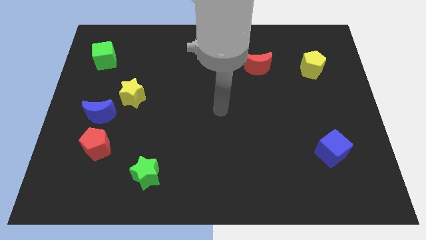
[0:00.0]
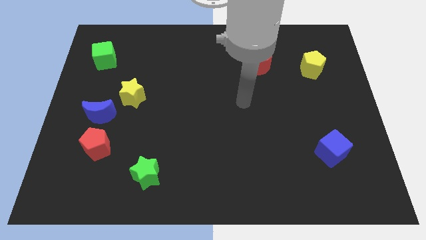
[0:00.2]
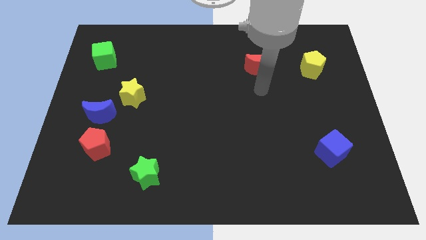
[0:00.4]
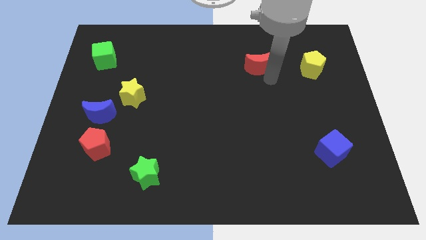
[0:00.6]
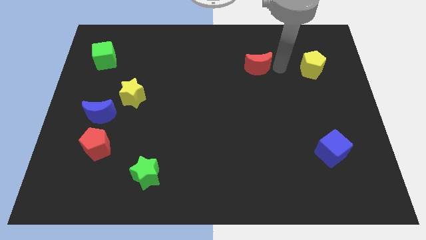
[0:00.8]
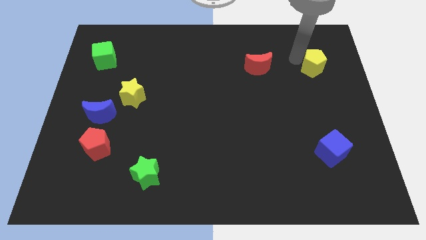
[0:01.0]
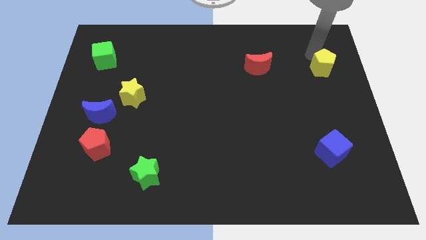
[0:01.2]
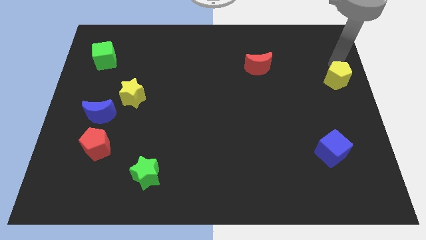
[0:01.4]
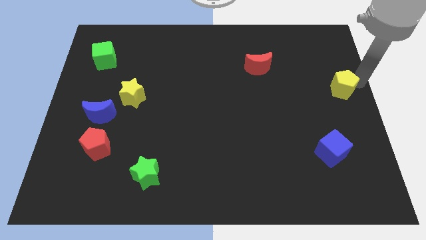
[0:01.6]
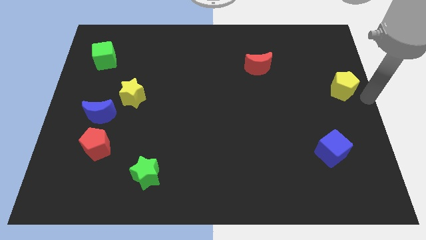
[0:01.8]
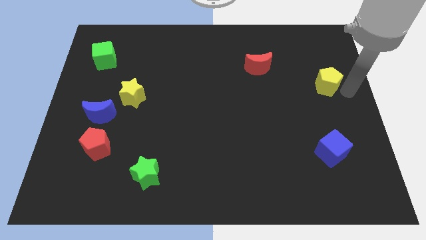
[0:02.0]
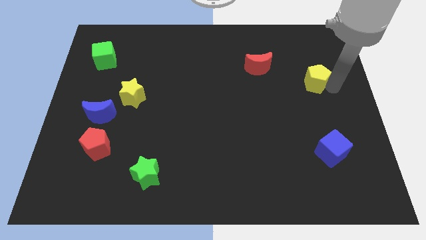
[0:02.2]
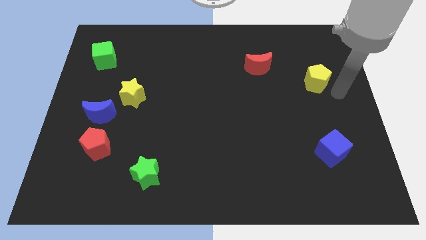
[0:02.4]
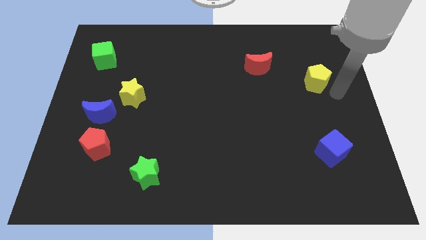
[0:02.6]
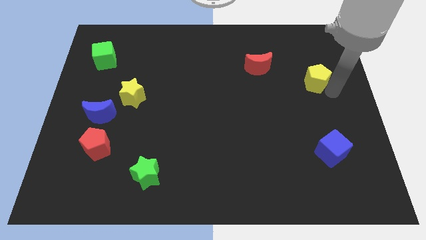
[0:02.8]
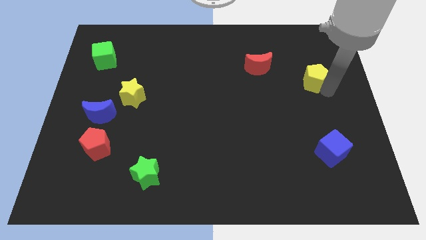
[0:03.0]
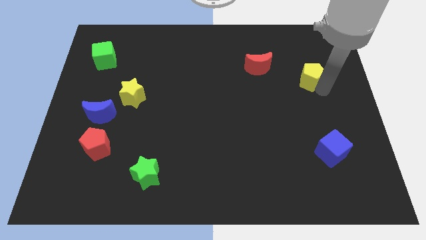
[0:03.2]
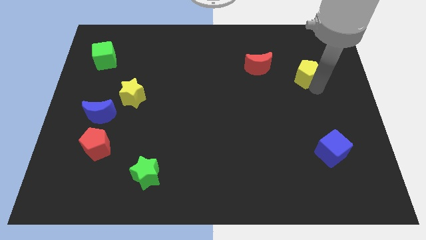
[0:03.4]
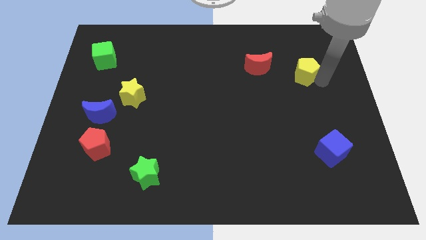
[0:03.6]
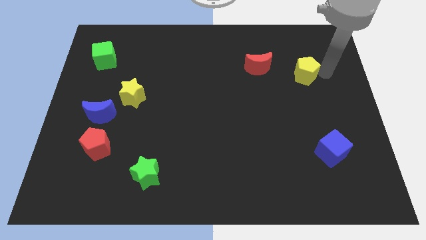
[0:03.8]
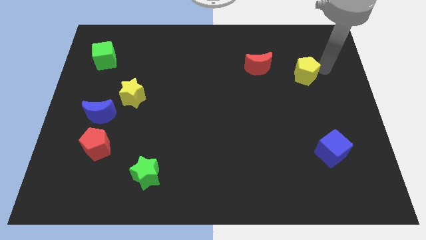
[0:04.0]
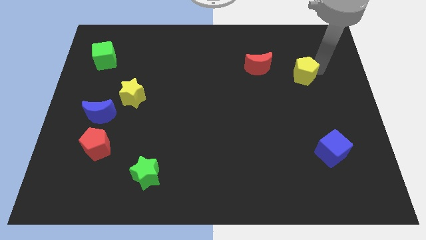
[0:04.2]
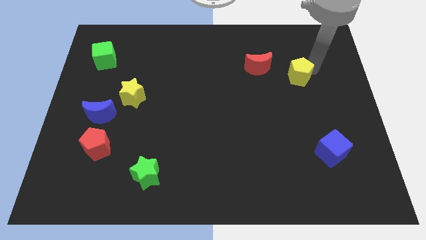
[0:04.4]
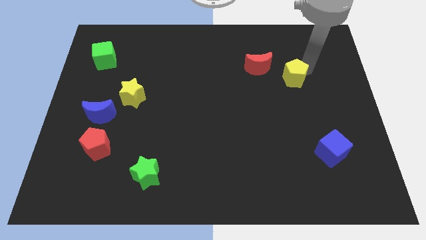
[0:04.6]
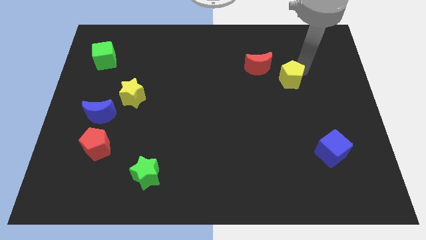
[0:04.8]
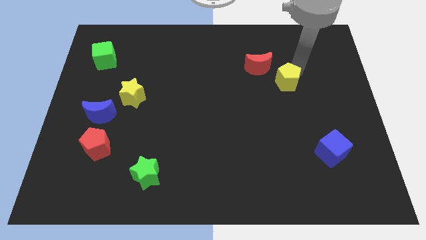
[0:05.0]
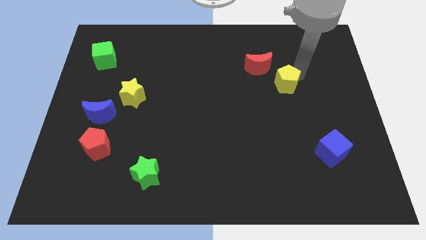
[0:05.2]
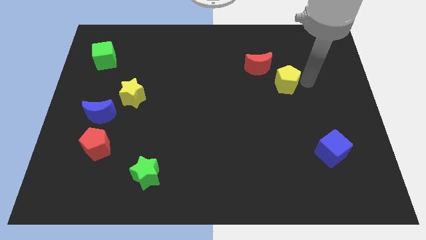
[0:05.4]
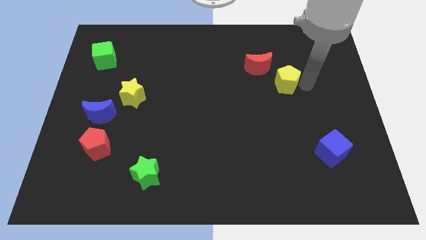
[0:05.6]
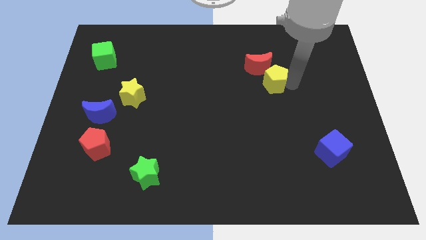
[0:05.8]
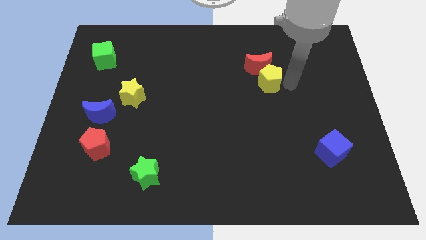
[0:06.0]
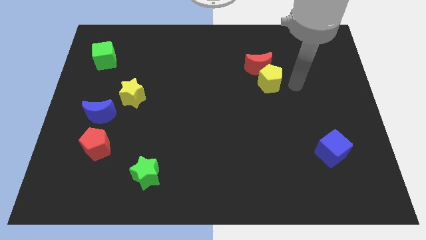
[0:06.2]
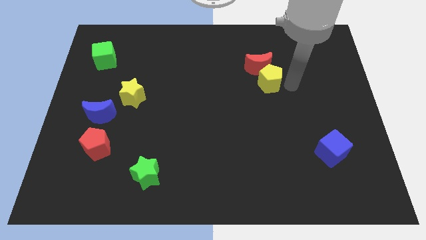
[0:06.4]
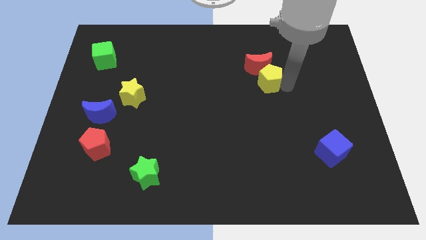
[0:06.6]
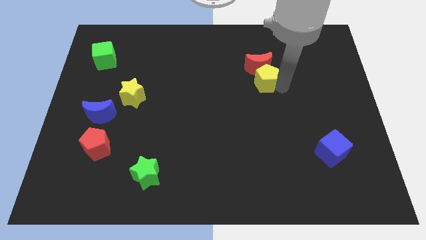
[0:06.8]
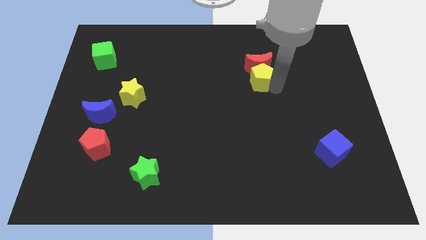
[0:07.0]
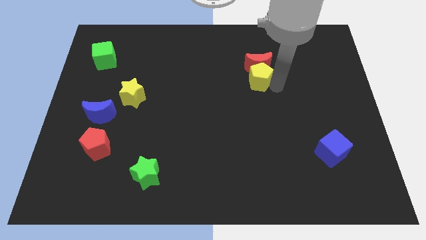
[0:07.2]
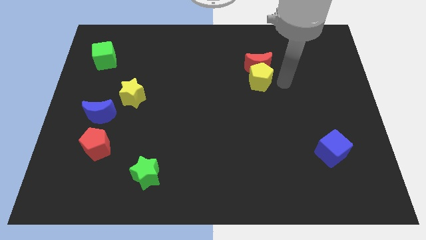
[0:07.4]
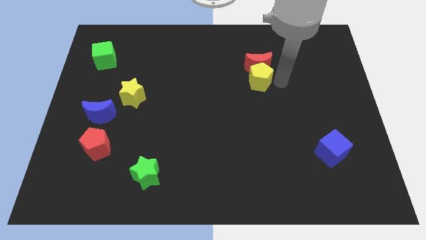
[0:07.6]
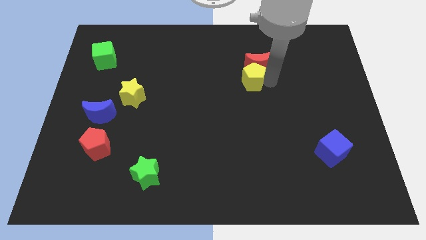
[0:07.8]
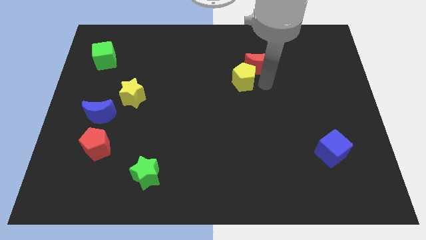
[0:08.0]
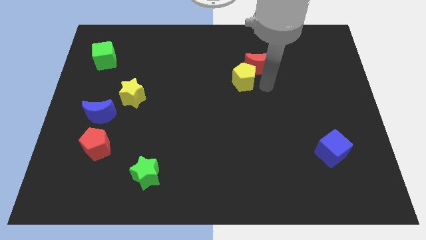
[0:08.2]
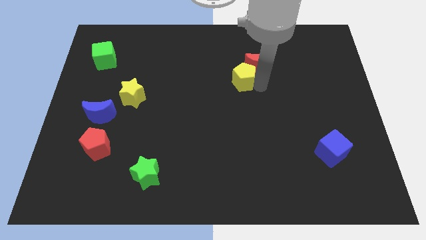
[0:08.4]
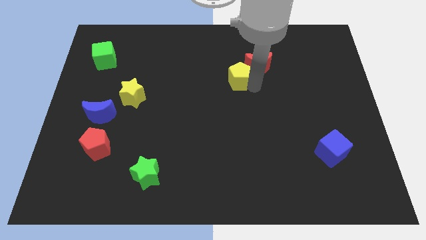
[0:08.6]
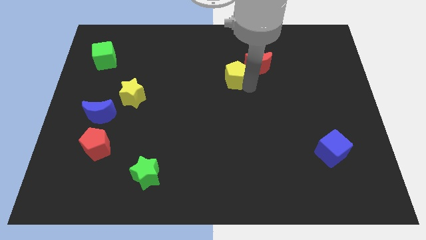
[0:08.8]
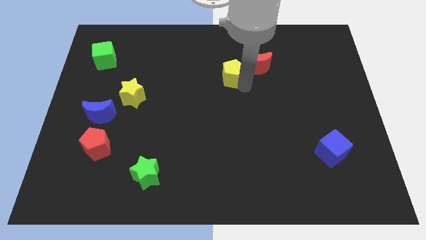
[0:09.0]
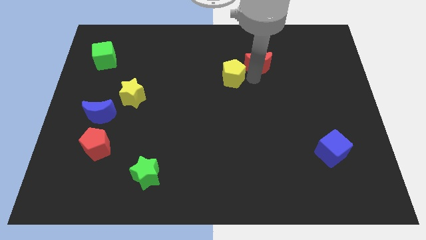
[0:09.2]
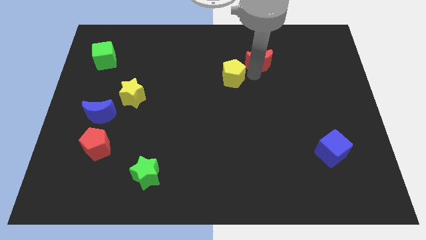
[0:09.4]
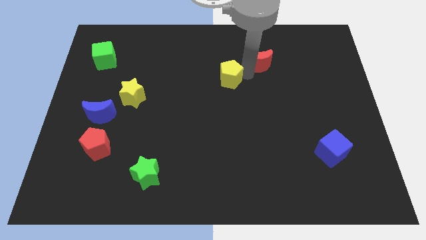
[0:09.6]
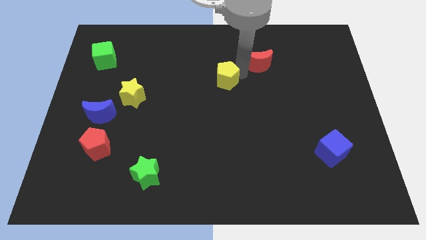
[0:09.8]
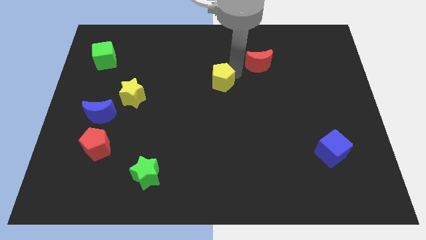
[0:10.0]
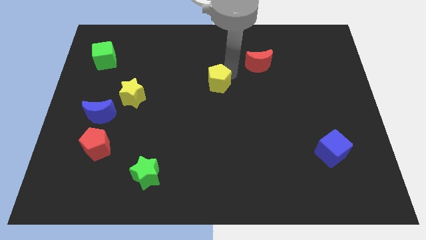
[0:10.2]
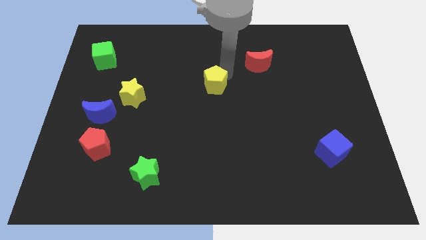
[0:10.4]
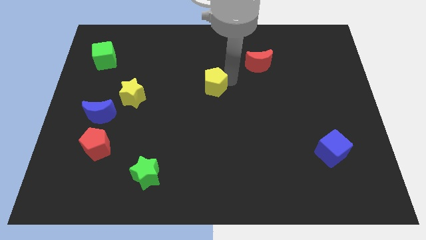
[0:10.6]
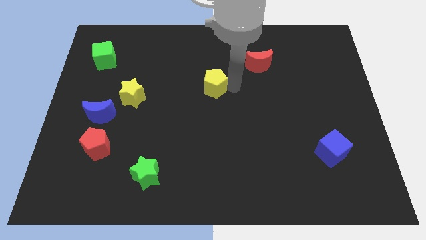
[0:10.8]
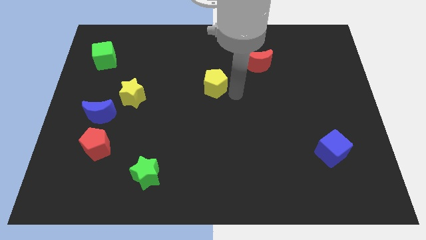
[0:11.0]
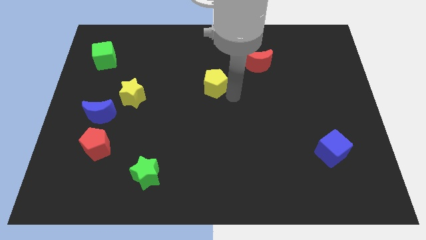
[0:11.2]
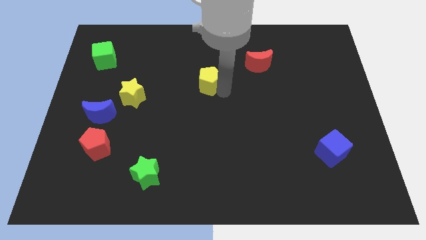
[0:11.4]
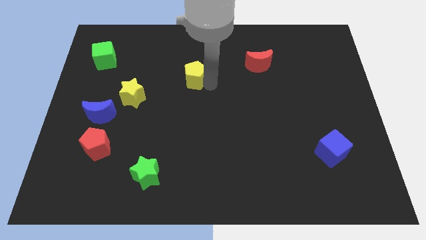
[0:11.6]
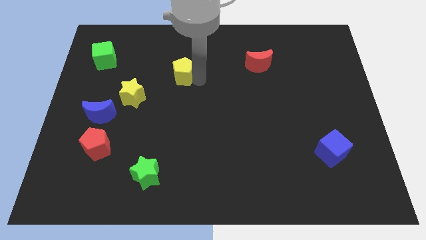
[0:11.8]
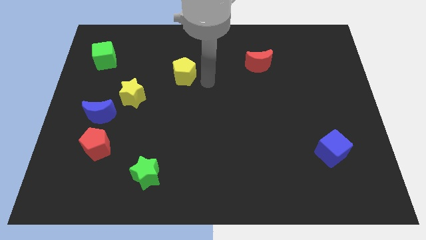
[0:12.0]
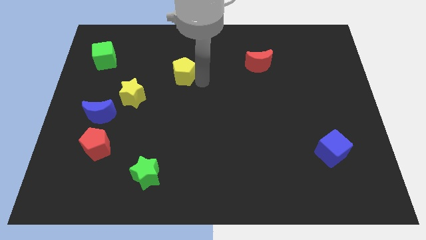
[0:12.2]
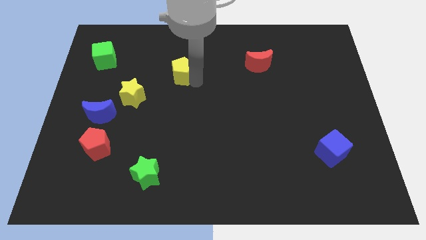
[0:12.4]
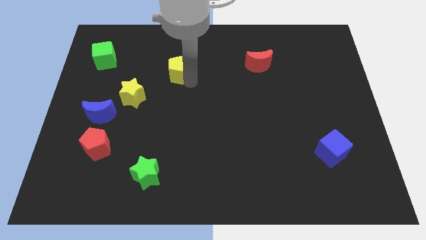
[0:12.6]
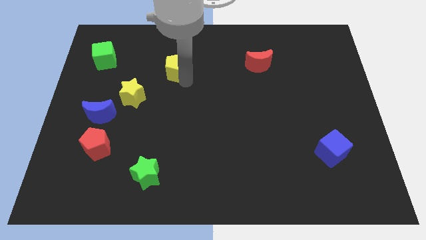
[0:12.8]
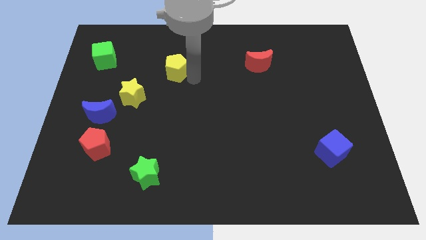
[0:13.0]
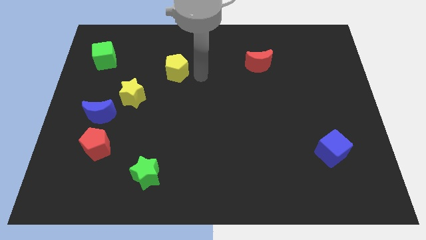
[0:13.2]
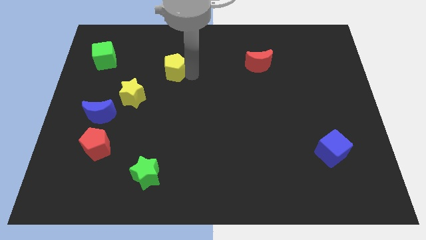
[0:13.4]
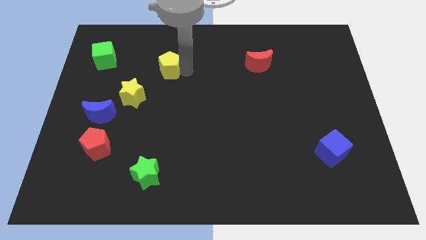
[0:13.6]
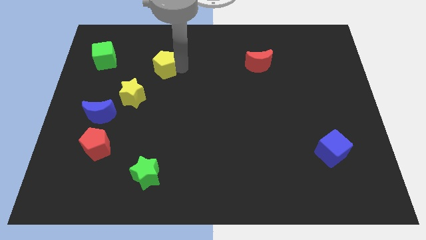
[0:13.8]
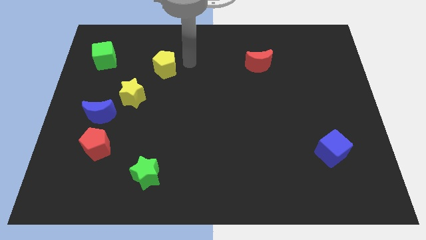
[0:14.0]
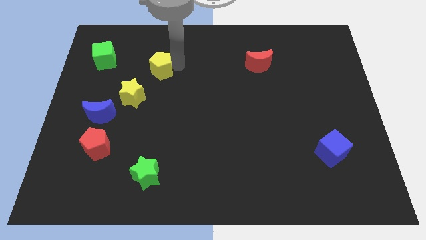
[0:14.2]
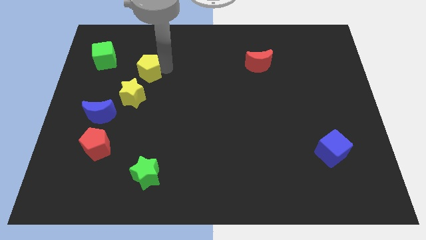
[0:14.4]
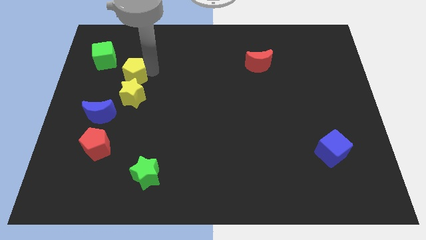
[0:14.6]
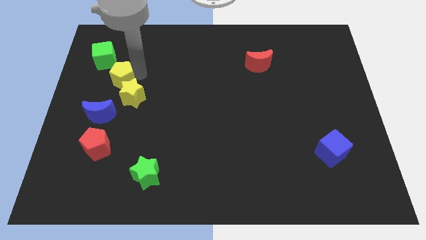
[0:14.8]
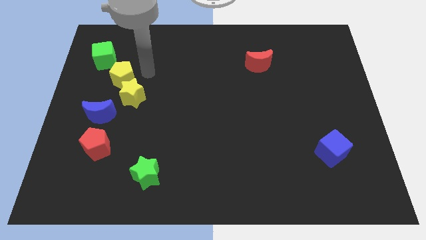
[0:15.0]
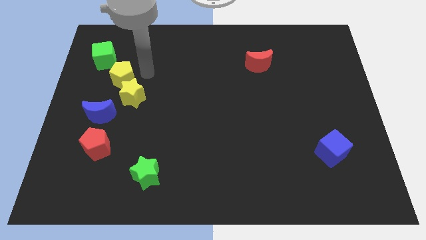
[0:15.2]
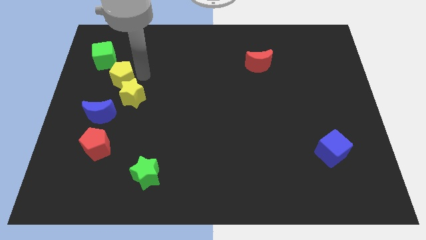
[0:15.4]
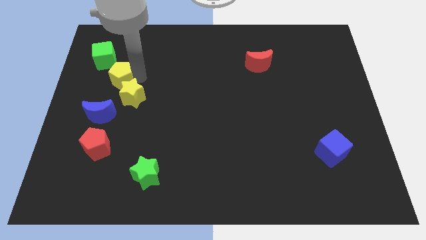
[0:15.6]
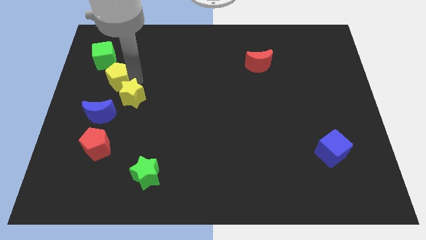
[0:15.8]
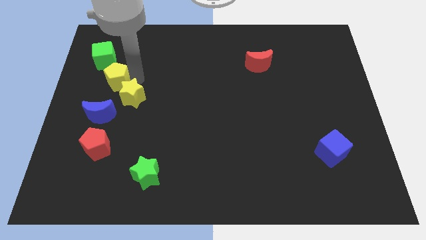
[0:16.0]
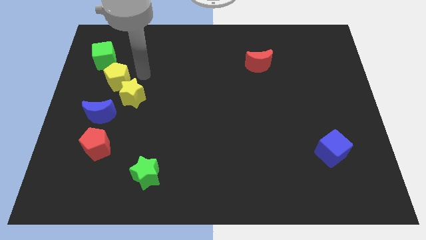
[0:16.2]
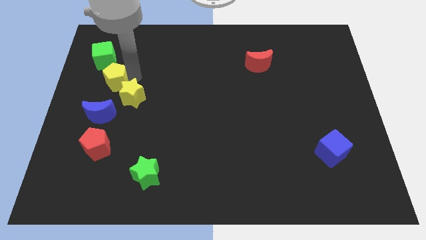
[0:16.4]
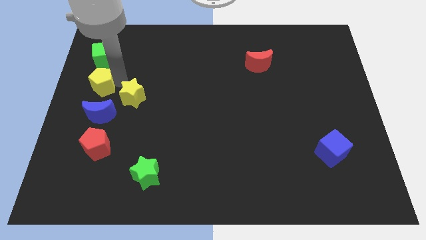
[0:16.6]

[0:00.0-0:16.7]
slide the yellow pentagon to the left side
